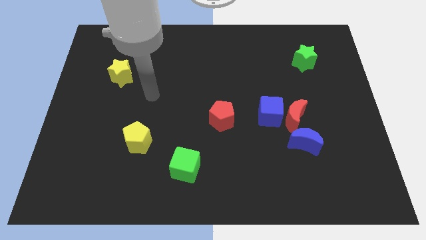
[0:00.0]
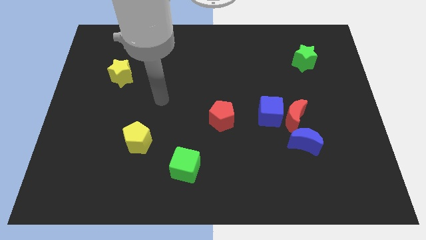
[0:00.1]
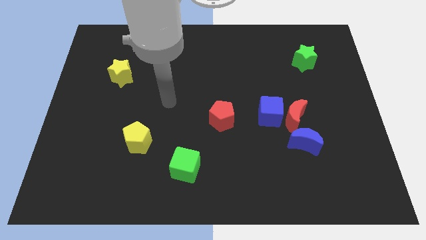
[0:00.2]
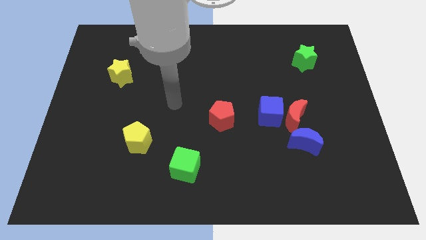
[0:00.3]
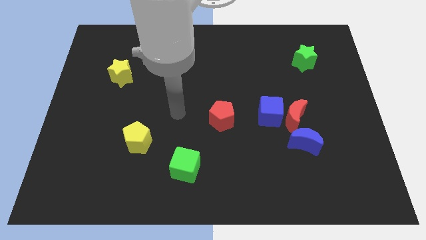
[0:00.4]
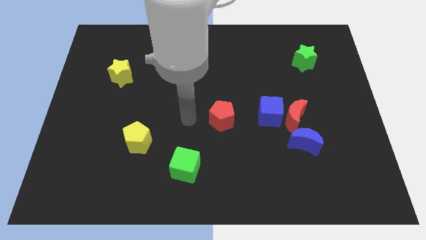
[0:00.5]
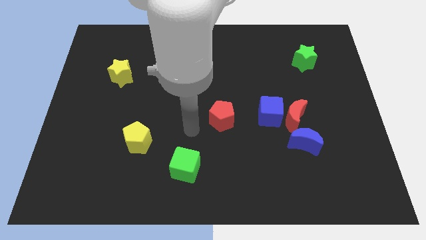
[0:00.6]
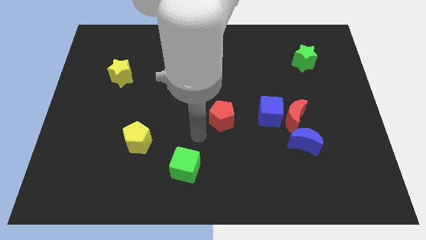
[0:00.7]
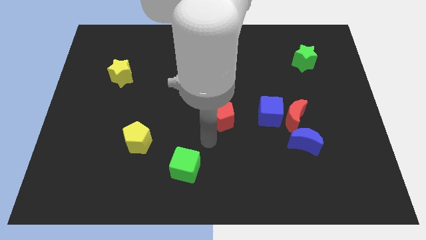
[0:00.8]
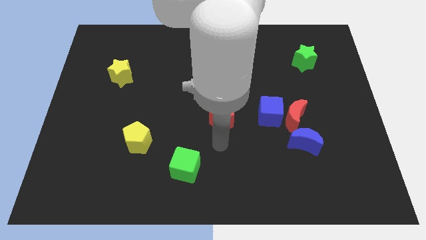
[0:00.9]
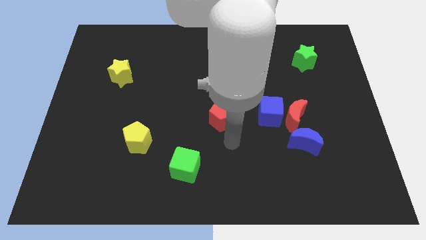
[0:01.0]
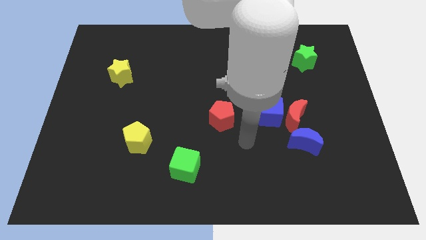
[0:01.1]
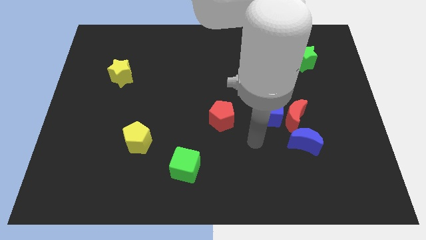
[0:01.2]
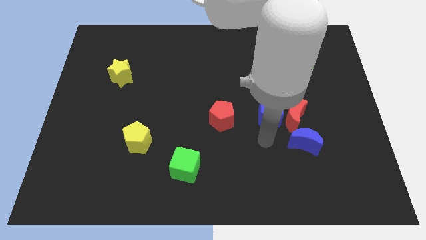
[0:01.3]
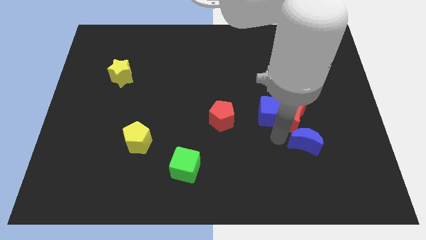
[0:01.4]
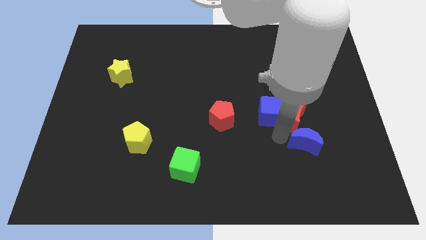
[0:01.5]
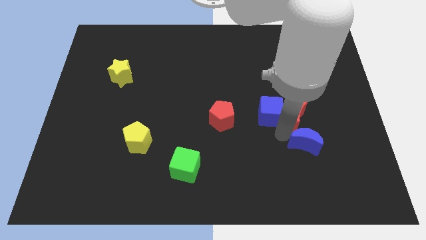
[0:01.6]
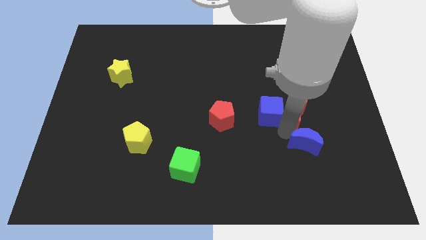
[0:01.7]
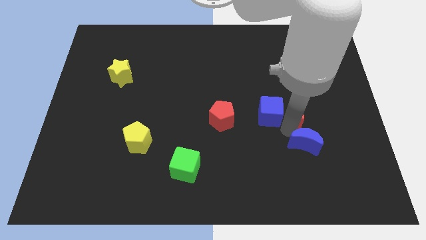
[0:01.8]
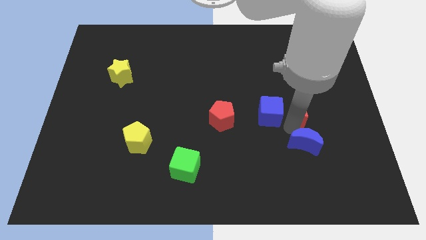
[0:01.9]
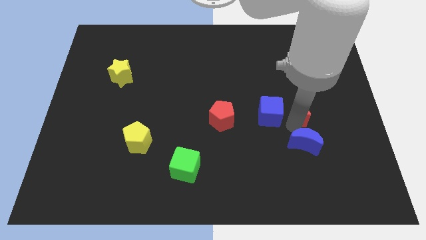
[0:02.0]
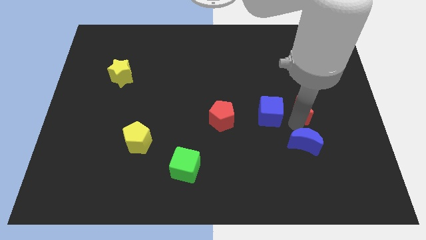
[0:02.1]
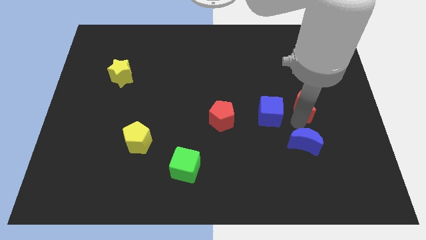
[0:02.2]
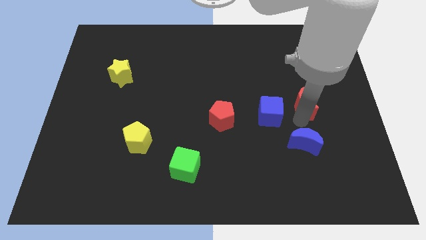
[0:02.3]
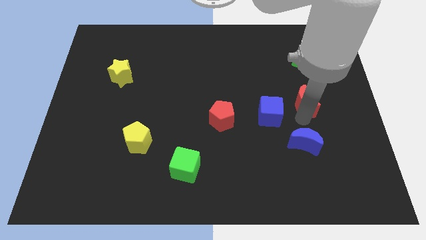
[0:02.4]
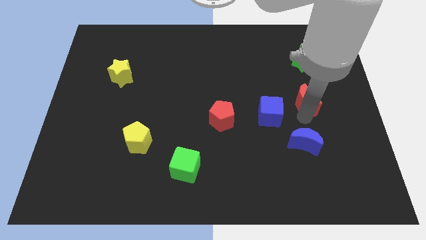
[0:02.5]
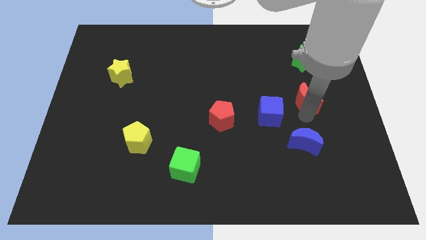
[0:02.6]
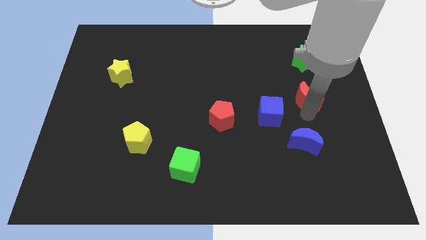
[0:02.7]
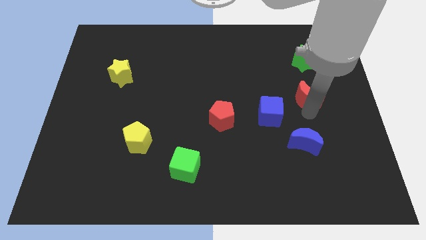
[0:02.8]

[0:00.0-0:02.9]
move the red moon away from the blue cube and blue moon

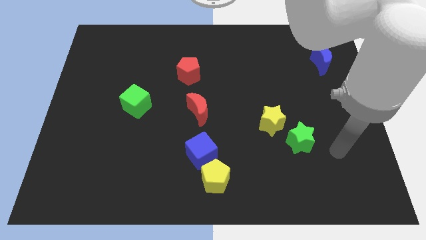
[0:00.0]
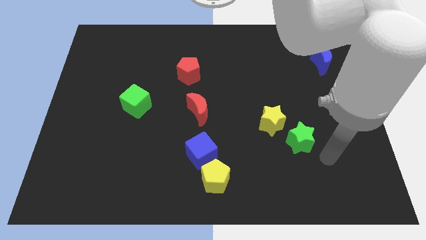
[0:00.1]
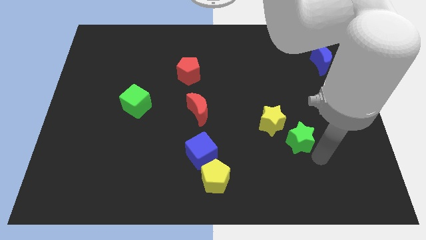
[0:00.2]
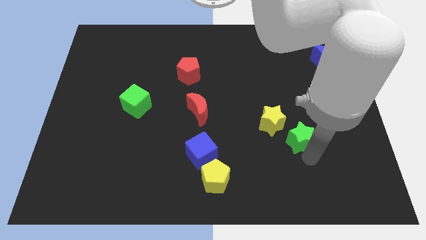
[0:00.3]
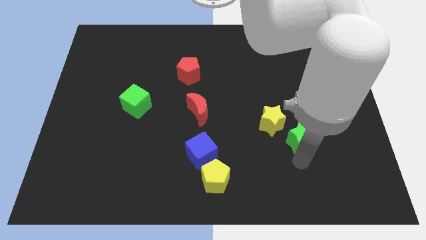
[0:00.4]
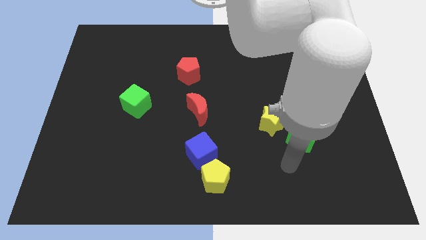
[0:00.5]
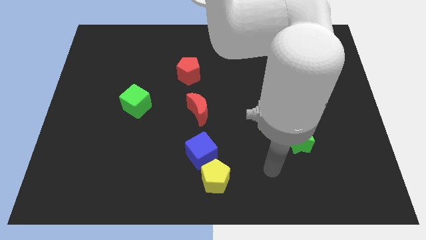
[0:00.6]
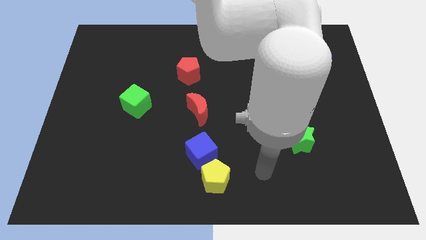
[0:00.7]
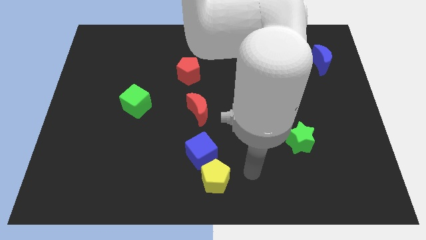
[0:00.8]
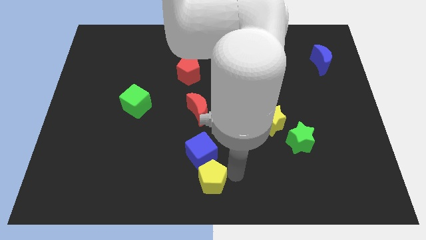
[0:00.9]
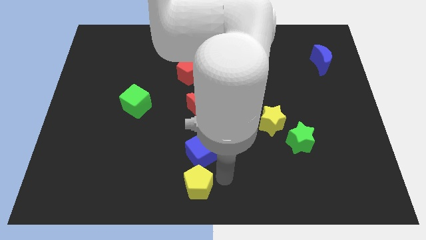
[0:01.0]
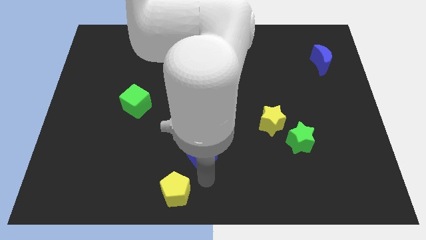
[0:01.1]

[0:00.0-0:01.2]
separate the blue cube from the yellow pentagon

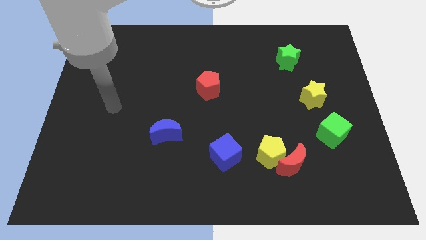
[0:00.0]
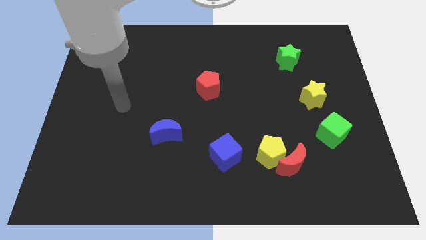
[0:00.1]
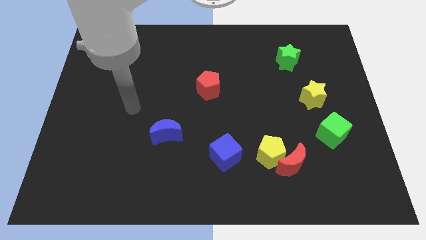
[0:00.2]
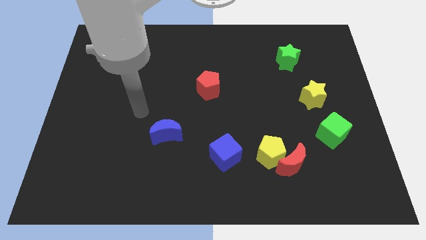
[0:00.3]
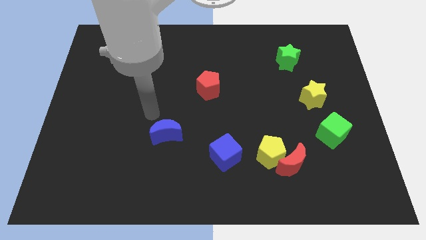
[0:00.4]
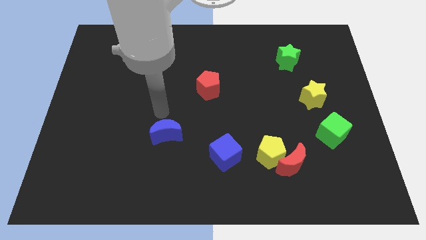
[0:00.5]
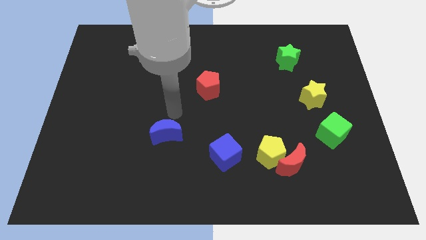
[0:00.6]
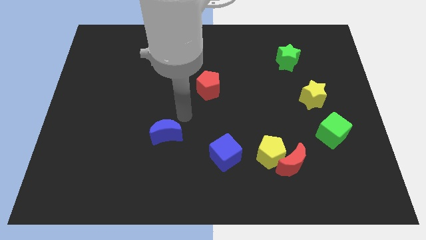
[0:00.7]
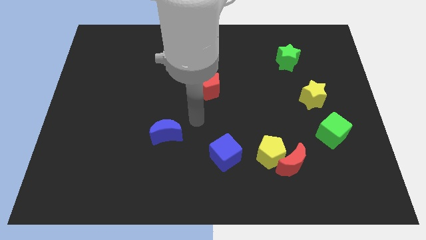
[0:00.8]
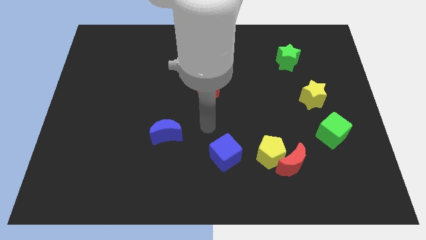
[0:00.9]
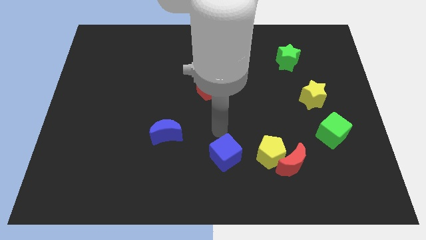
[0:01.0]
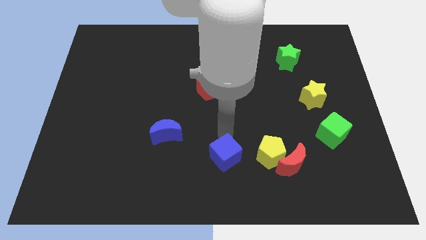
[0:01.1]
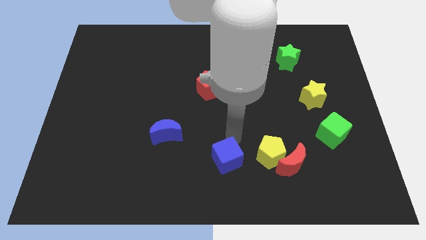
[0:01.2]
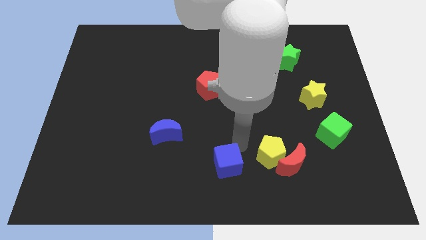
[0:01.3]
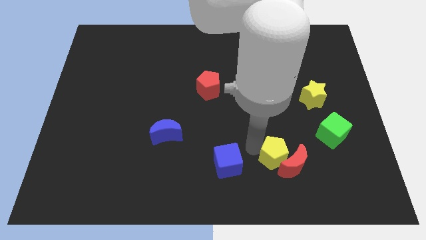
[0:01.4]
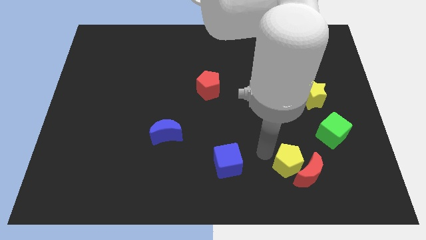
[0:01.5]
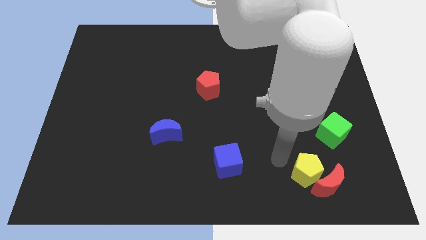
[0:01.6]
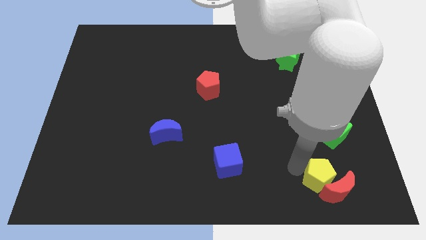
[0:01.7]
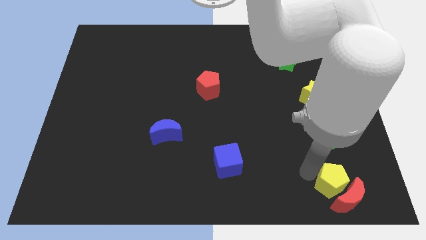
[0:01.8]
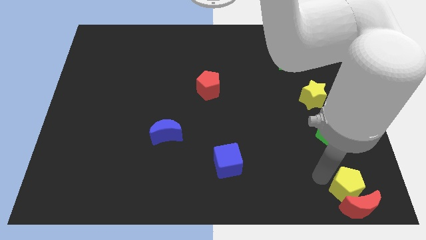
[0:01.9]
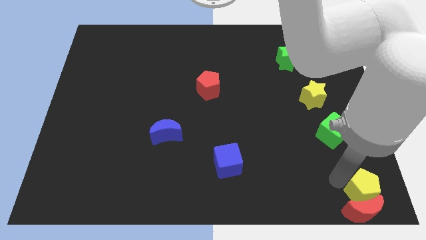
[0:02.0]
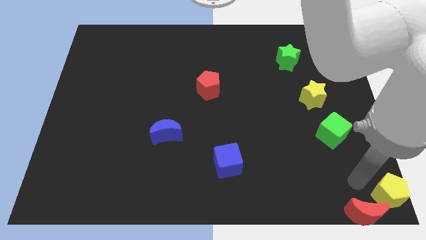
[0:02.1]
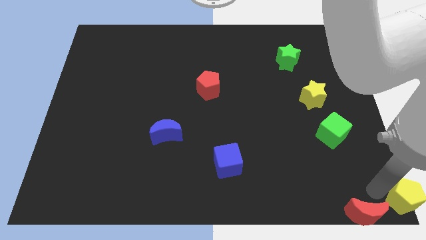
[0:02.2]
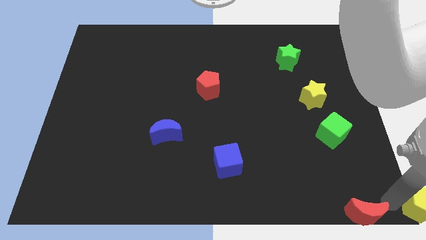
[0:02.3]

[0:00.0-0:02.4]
separate the red moon from the yellow pentagon

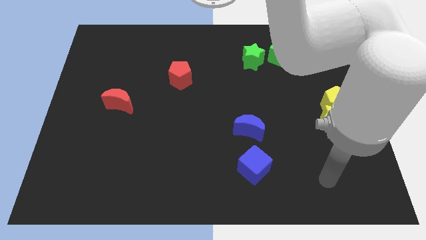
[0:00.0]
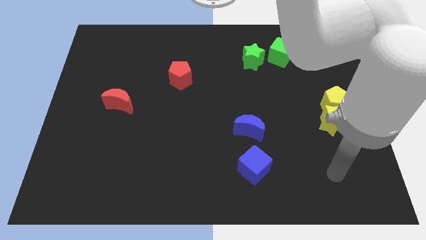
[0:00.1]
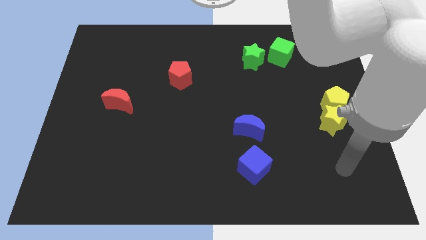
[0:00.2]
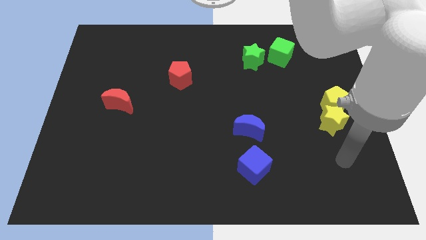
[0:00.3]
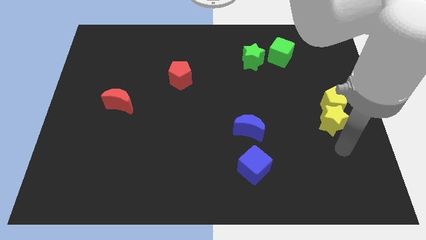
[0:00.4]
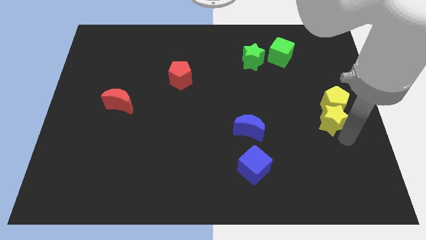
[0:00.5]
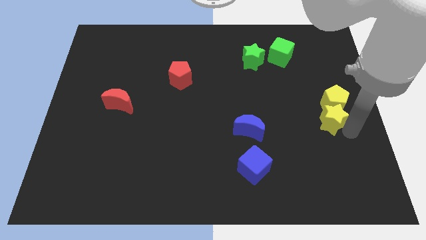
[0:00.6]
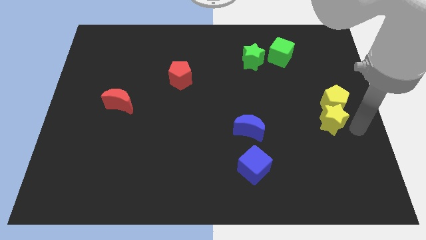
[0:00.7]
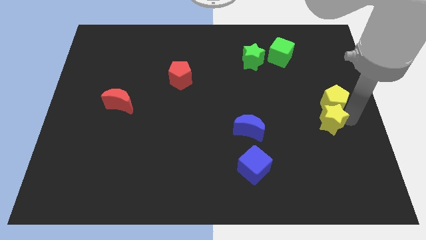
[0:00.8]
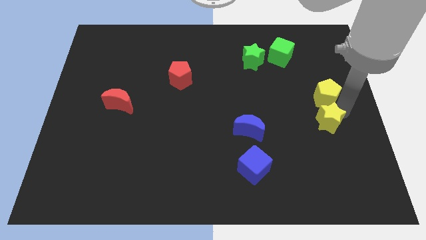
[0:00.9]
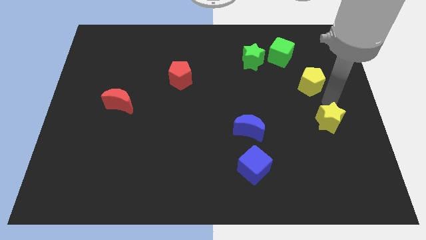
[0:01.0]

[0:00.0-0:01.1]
move the yellow star away from the yellow pentagon

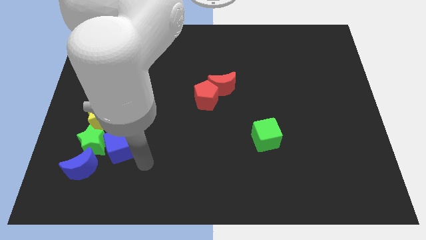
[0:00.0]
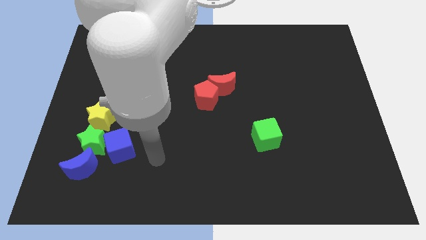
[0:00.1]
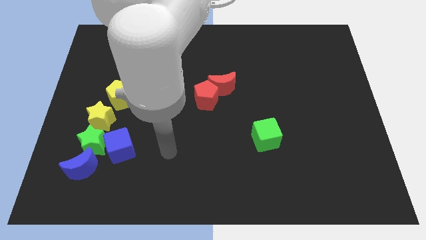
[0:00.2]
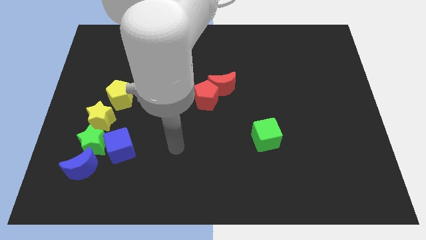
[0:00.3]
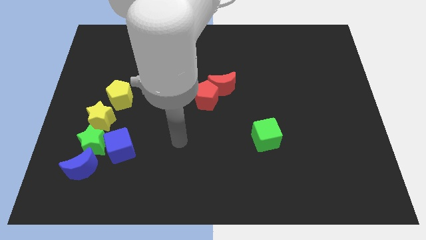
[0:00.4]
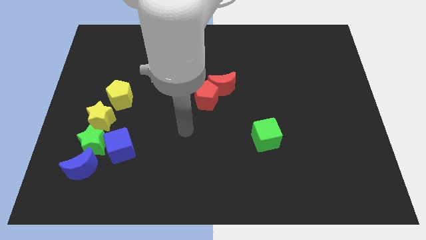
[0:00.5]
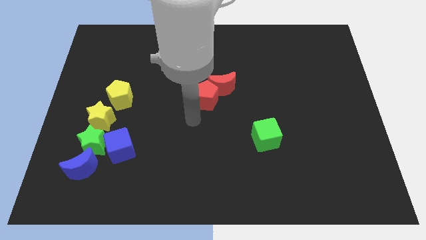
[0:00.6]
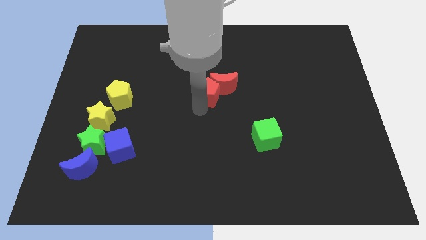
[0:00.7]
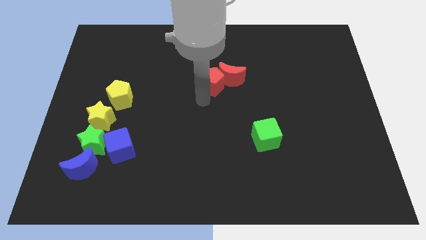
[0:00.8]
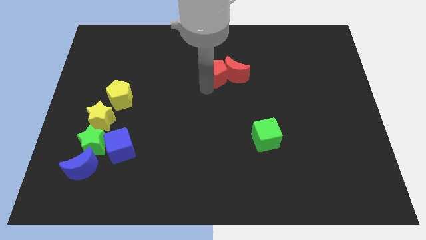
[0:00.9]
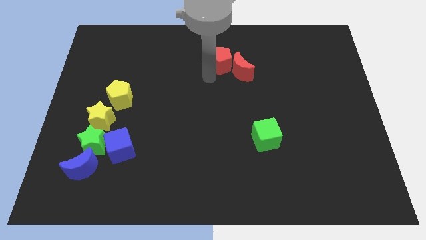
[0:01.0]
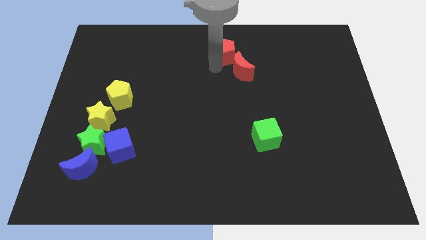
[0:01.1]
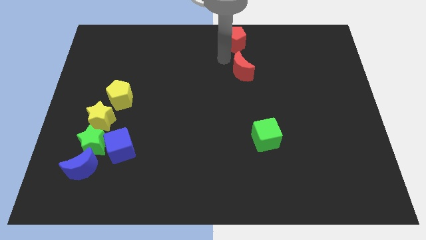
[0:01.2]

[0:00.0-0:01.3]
separate the red moon from the red pentagon

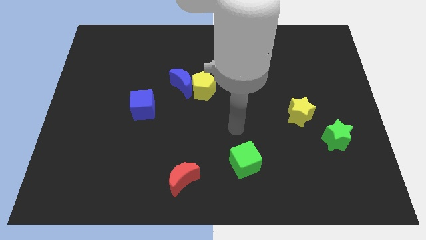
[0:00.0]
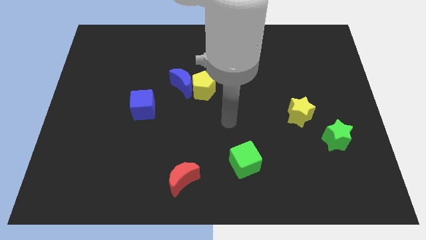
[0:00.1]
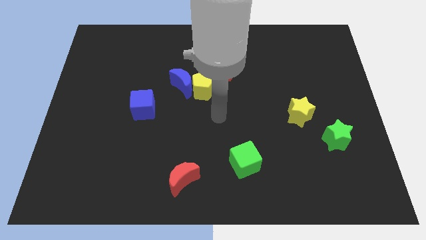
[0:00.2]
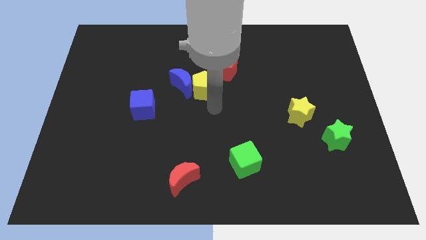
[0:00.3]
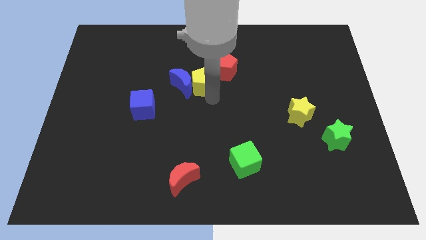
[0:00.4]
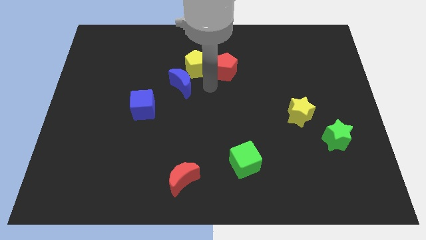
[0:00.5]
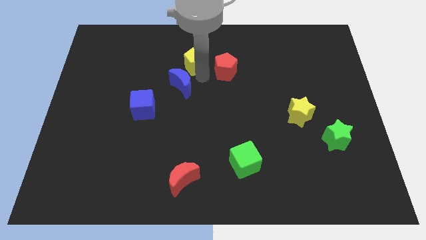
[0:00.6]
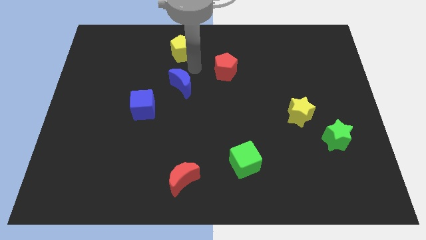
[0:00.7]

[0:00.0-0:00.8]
move the blue moon away from the yellow pentagon
